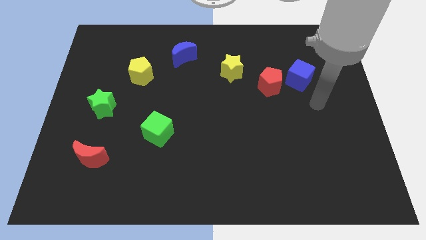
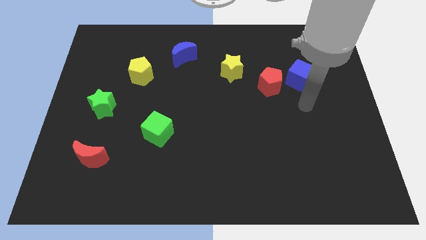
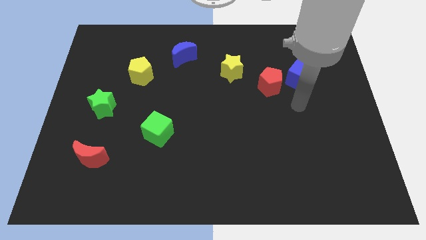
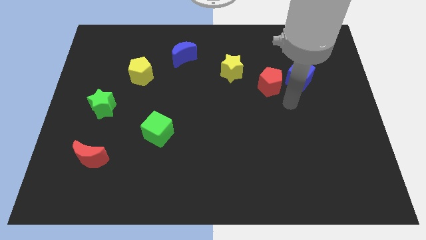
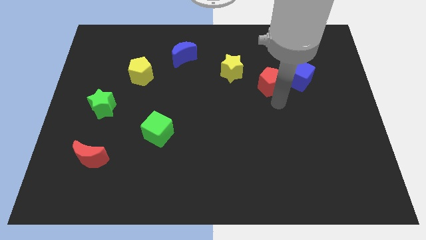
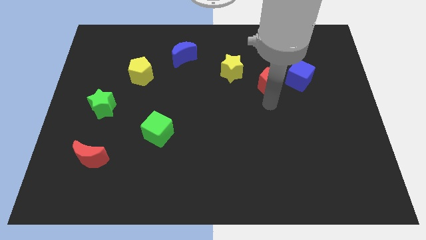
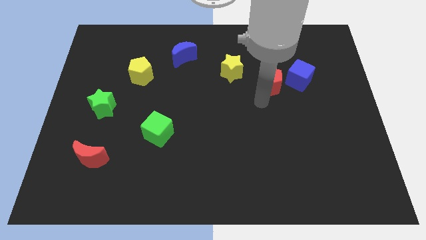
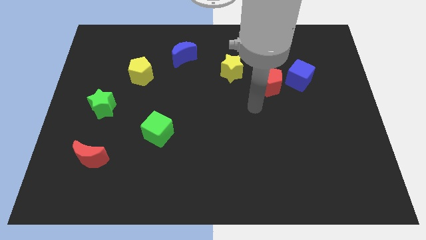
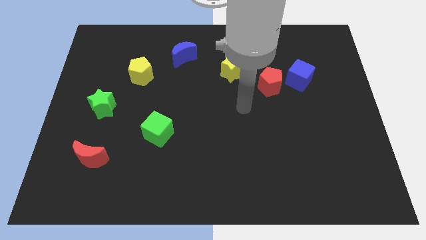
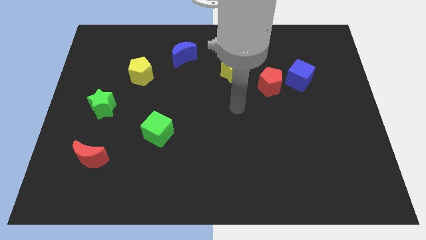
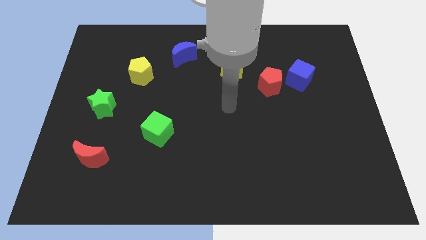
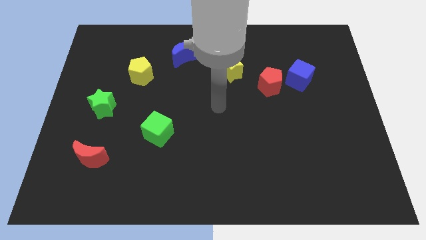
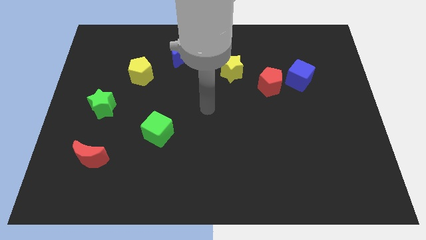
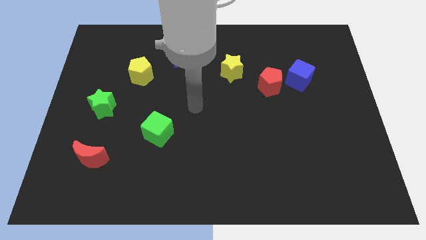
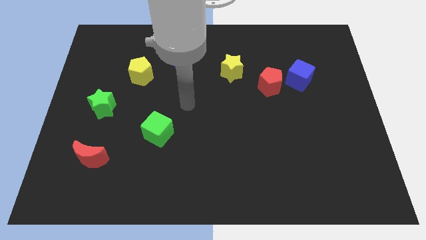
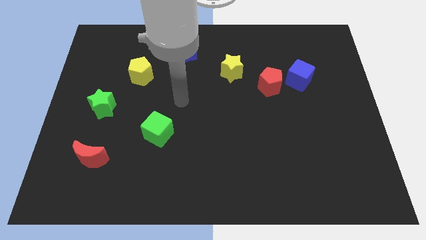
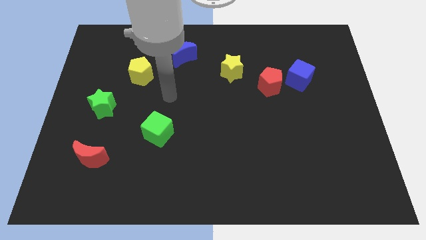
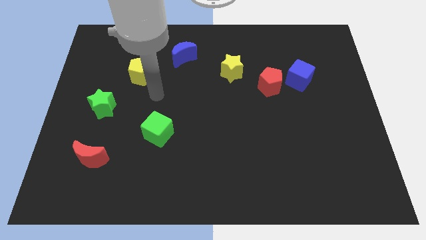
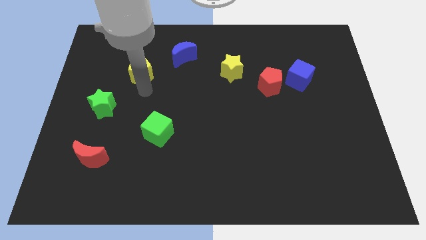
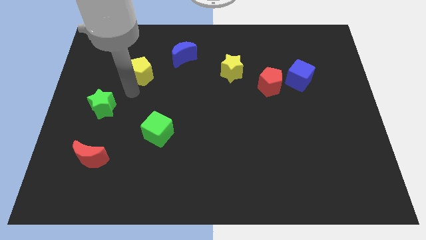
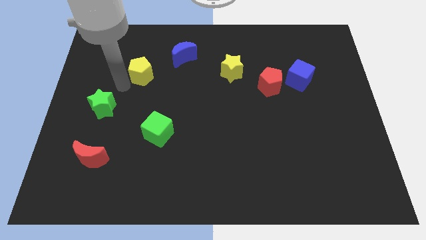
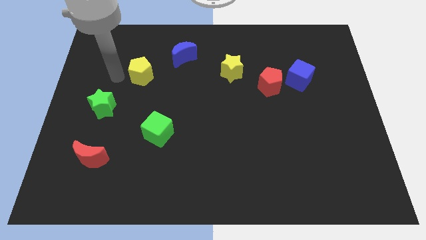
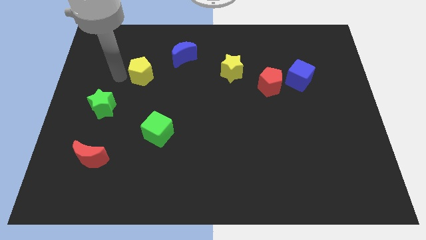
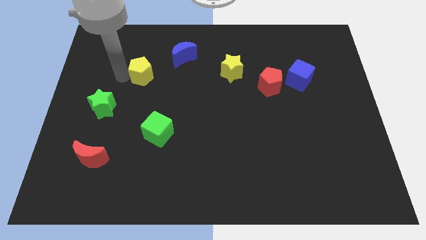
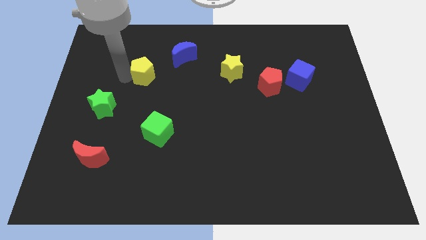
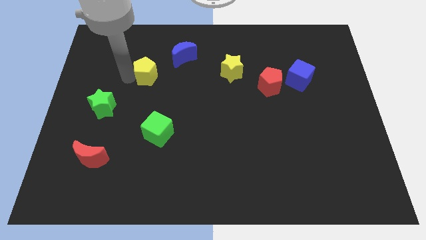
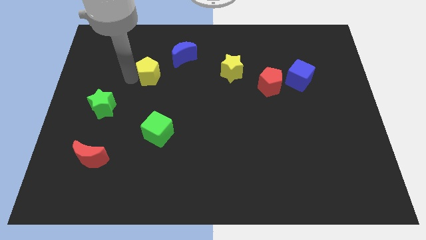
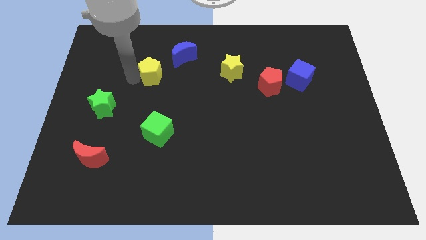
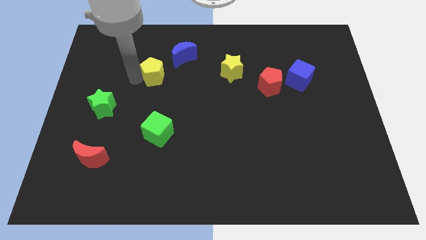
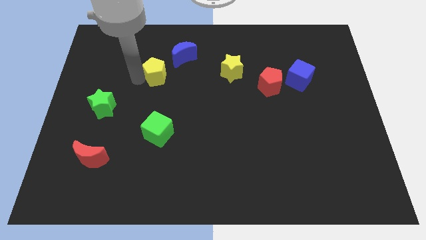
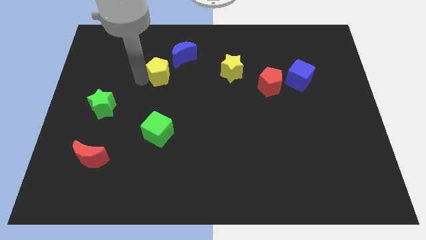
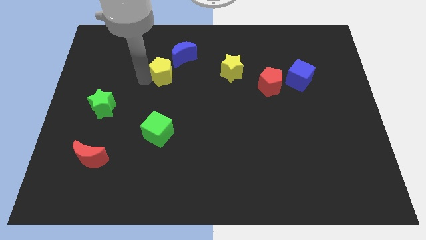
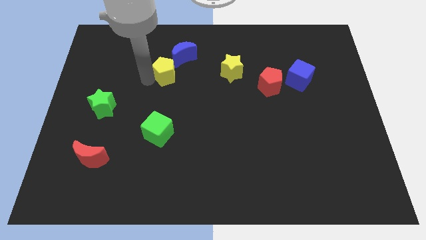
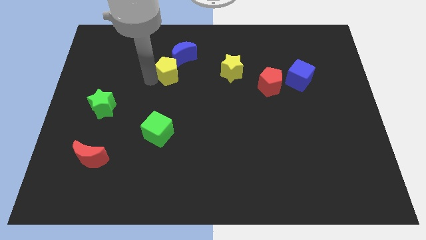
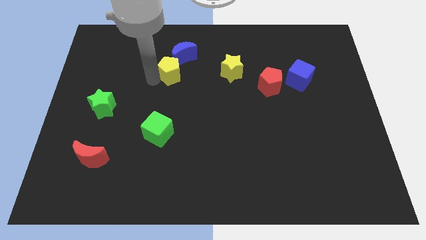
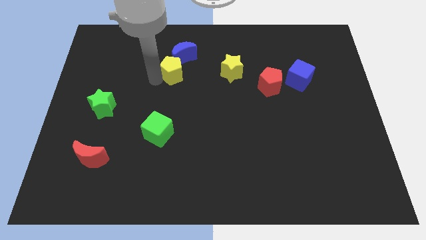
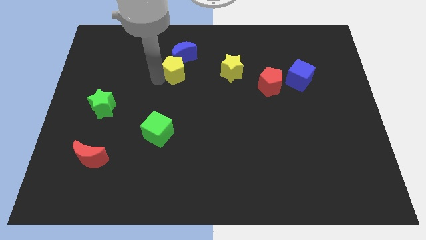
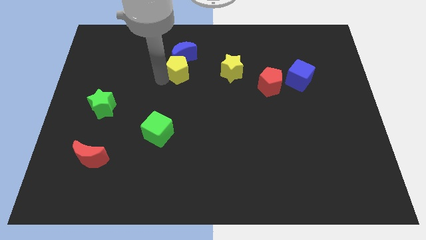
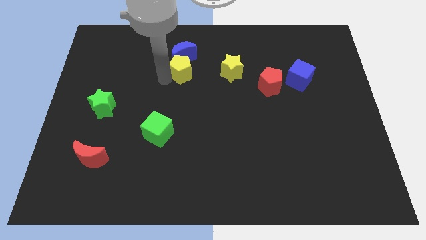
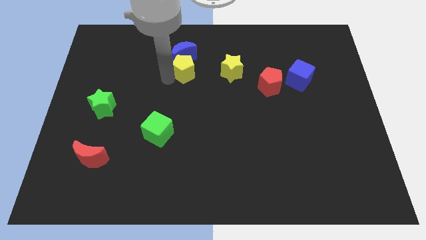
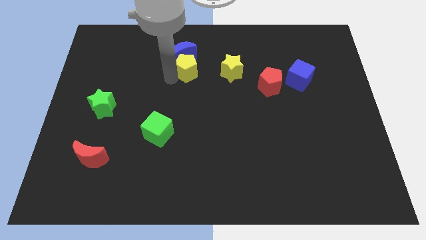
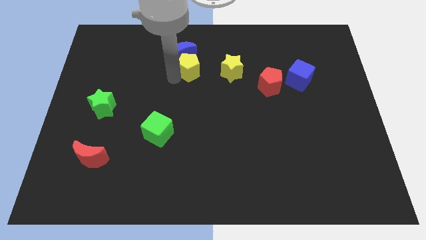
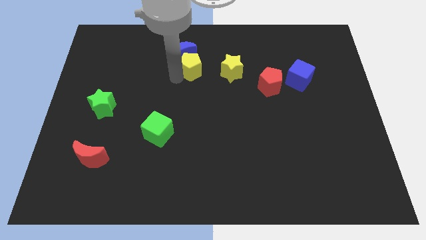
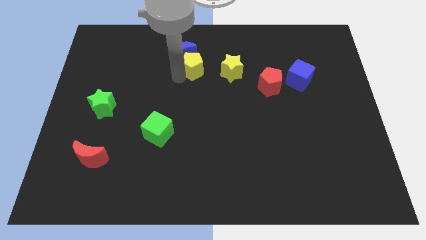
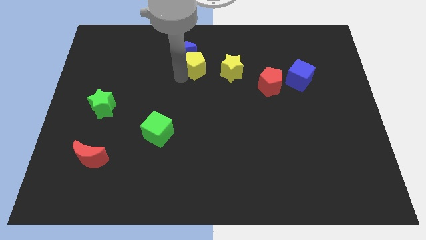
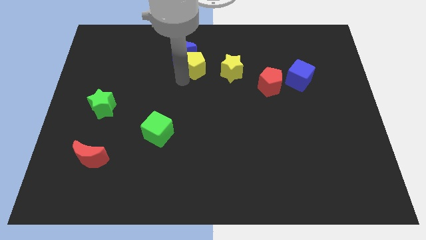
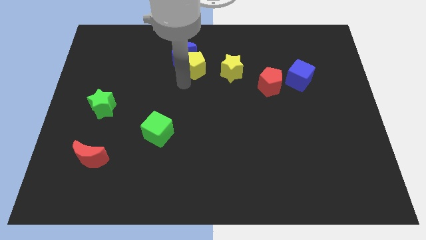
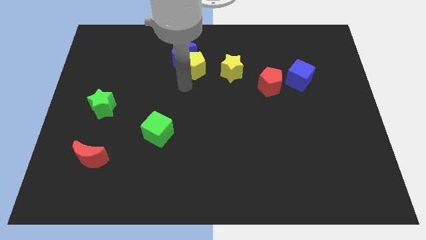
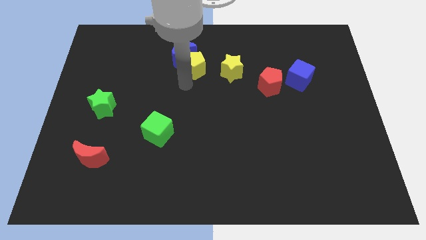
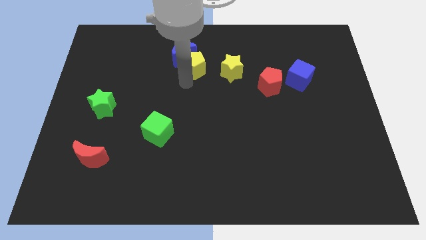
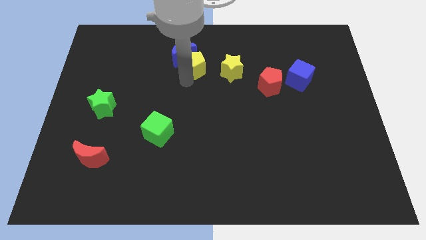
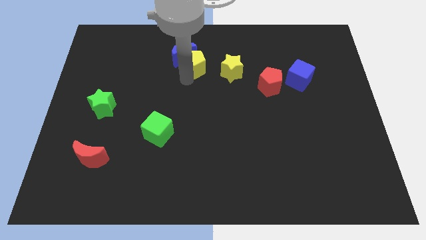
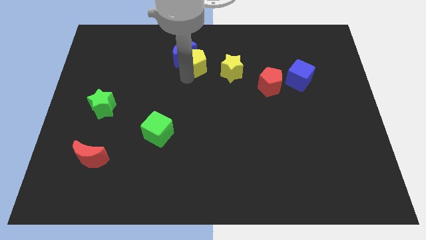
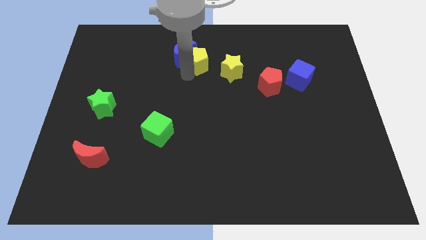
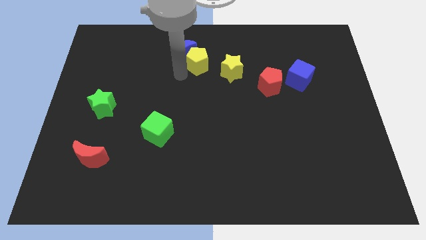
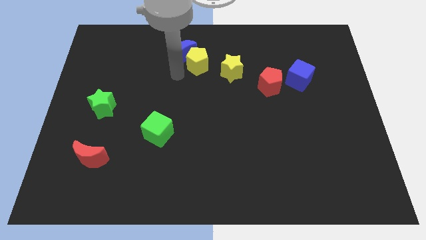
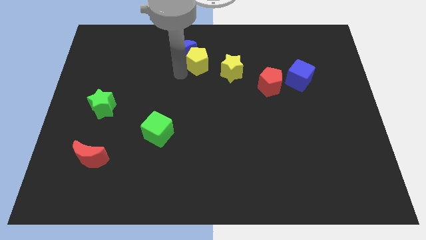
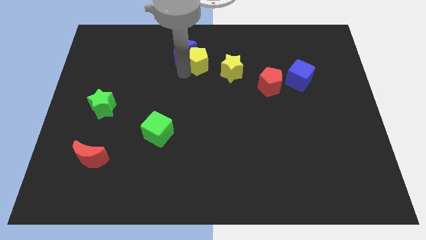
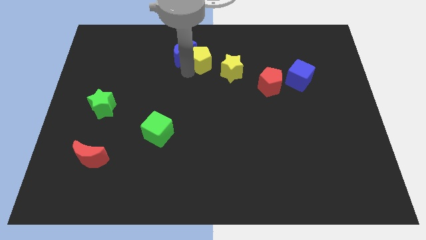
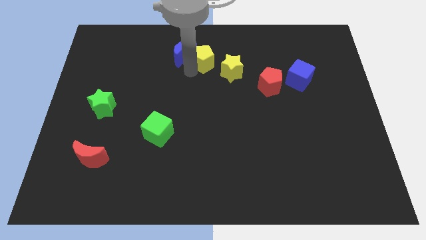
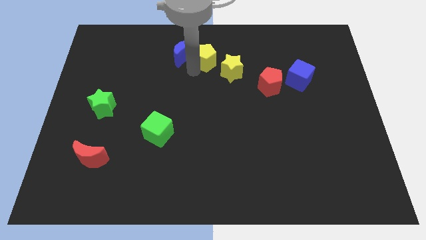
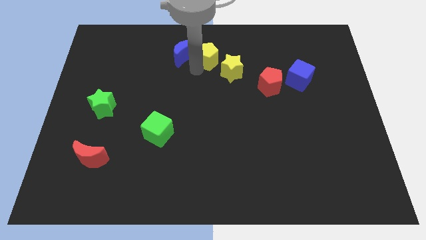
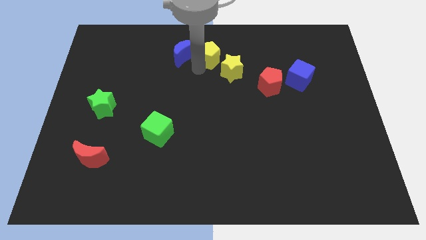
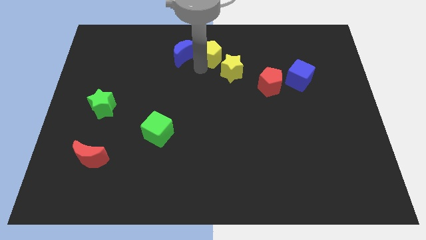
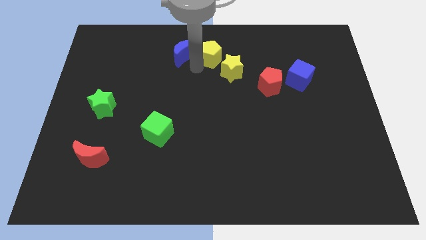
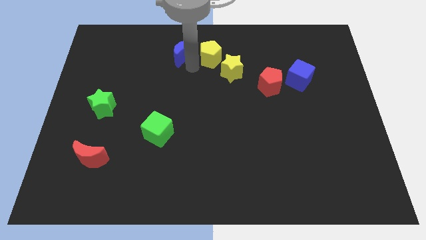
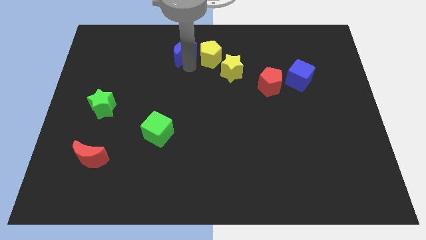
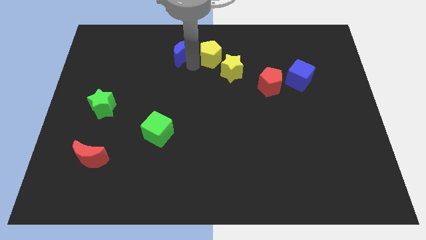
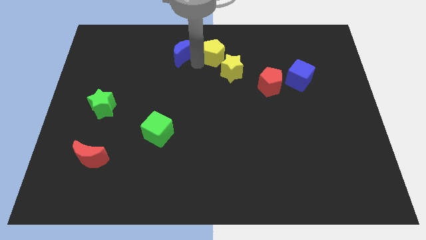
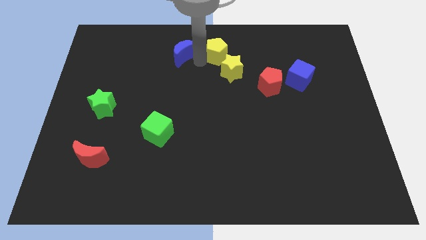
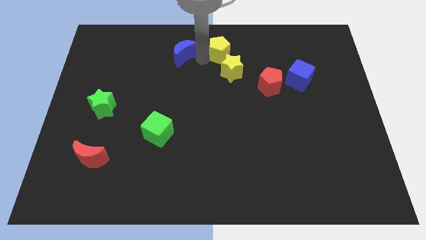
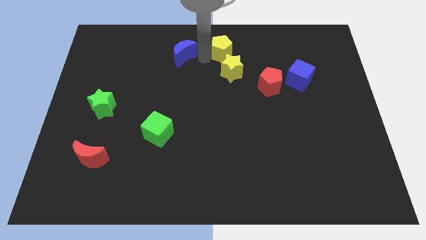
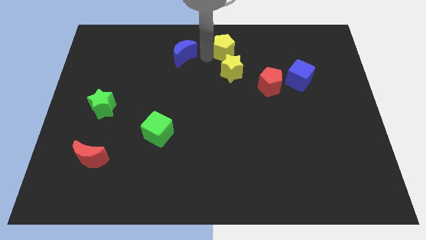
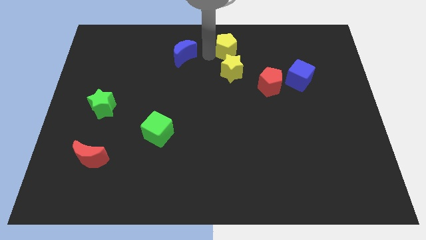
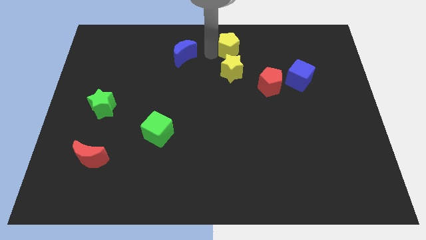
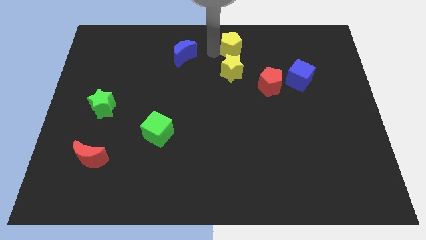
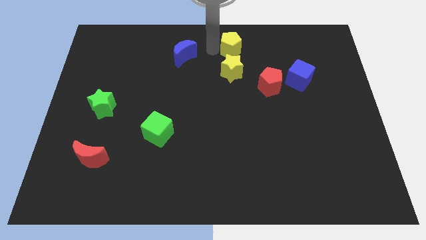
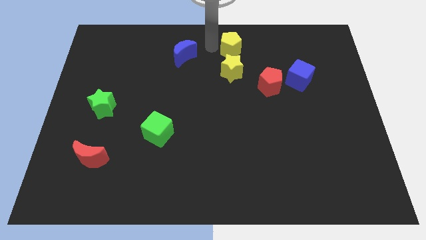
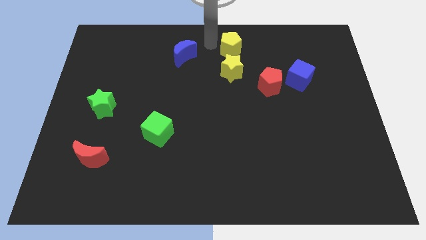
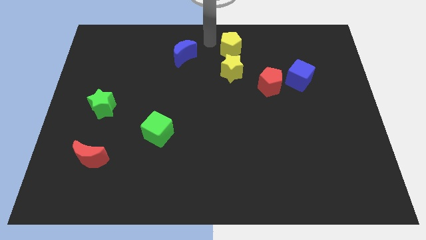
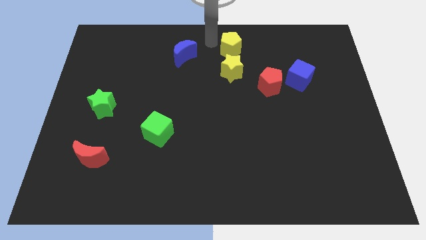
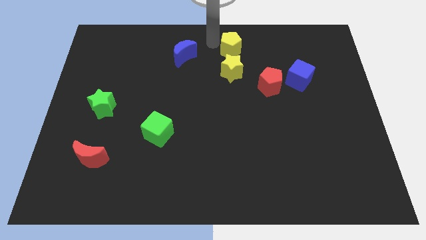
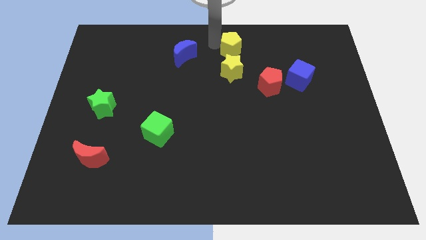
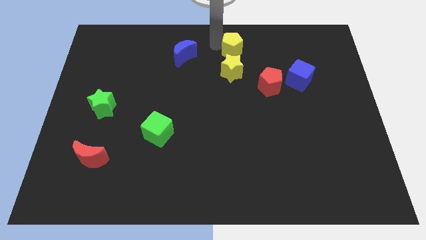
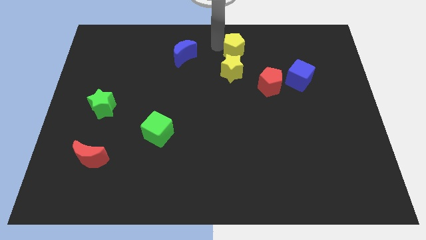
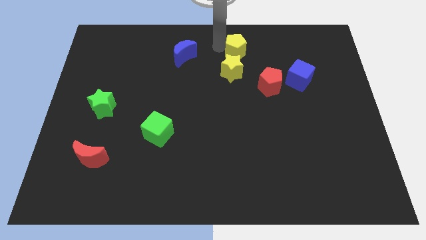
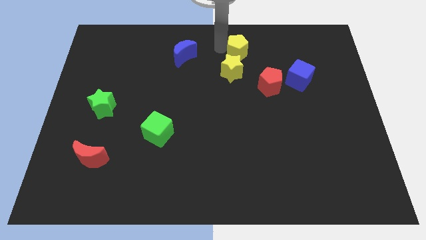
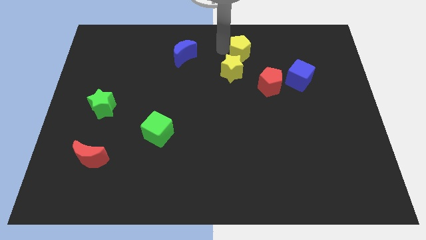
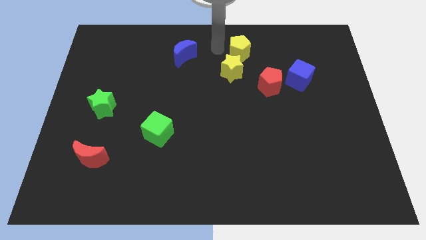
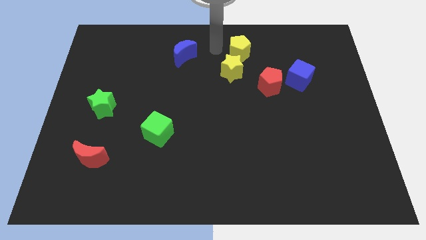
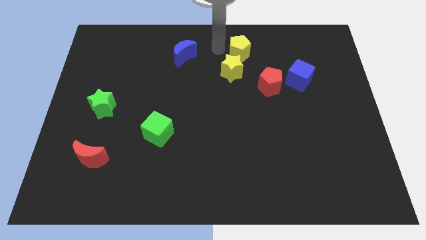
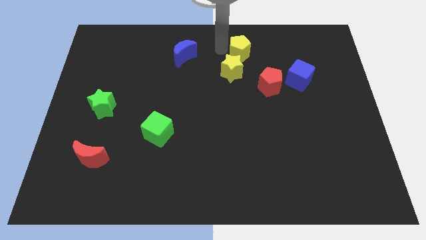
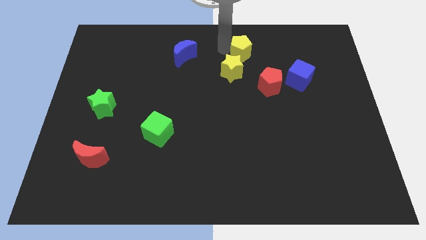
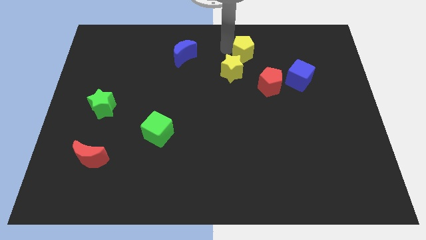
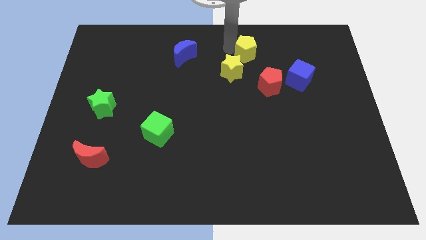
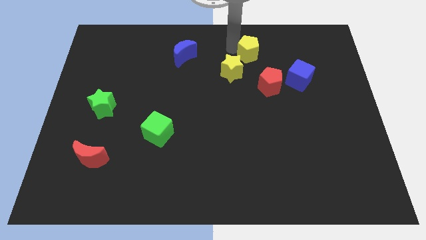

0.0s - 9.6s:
push the yellow pentagon to the top of the red pentagon
